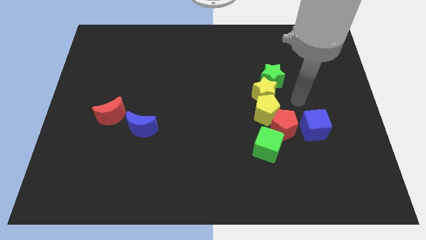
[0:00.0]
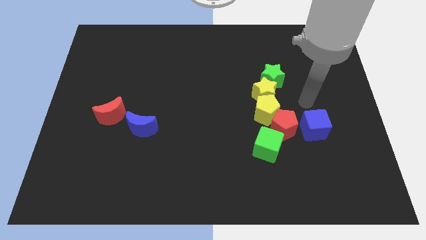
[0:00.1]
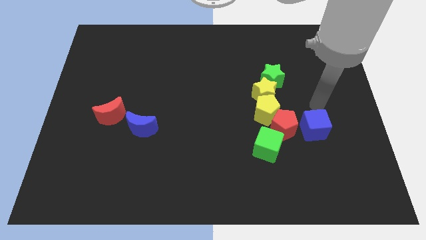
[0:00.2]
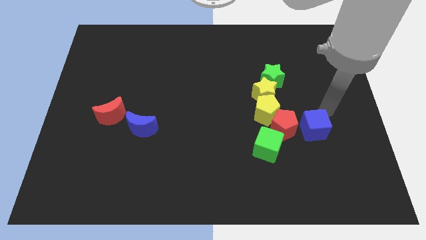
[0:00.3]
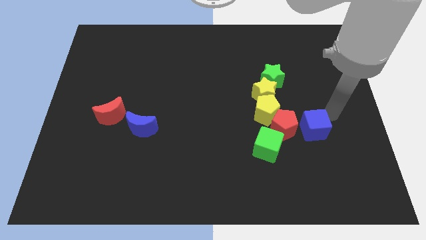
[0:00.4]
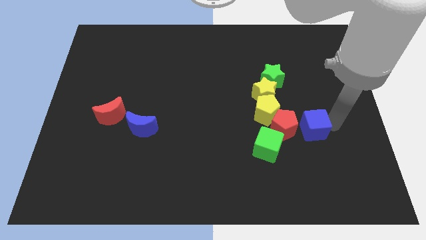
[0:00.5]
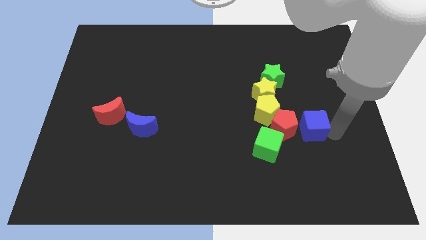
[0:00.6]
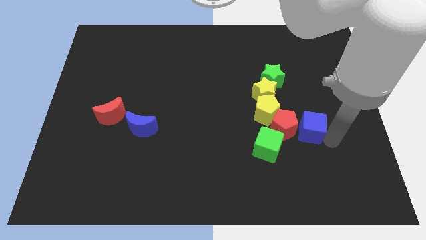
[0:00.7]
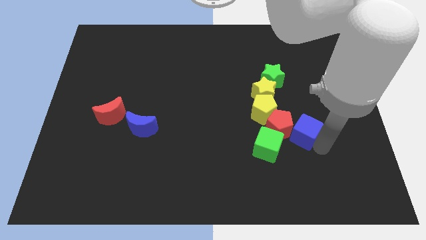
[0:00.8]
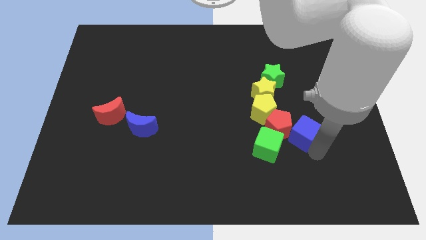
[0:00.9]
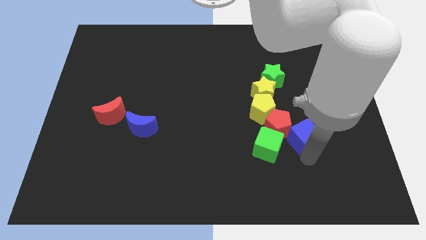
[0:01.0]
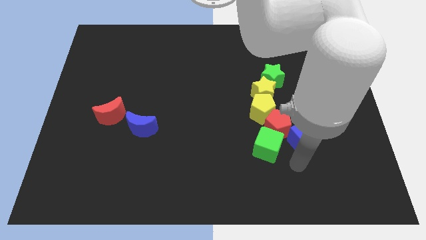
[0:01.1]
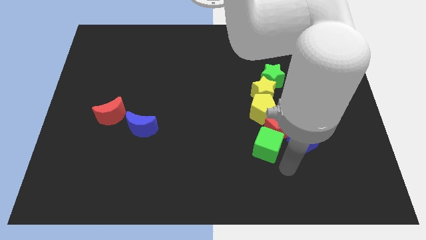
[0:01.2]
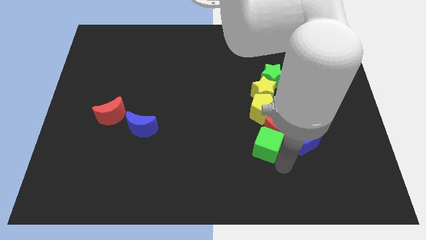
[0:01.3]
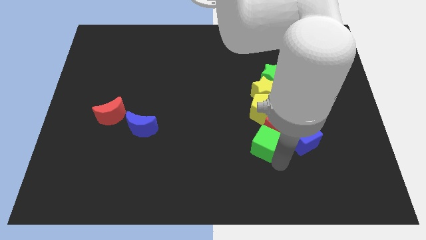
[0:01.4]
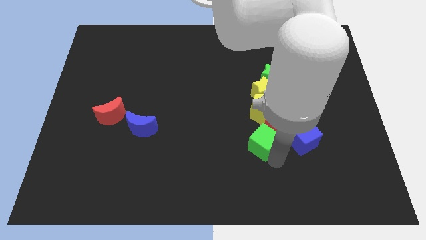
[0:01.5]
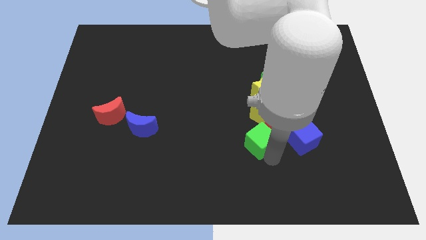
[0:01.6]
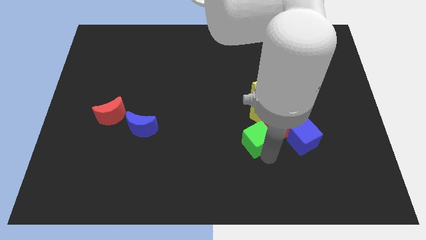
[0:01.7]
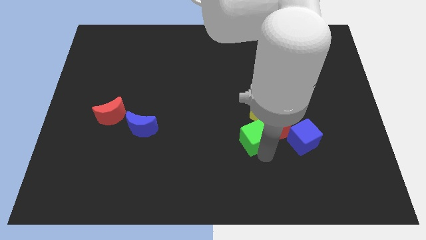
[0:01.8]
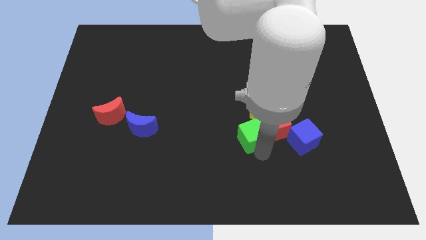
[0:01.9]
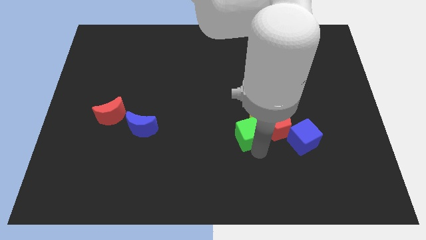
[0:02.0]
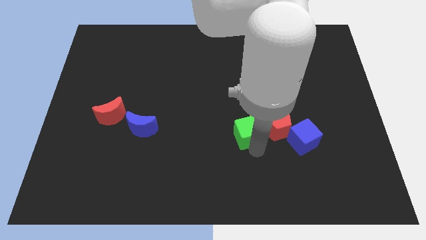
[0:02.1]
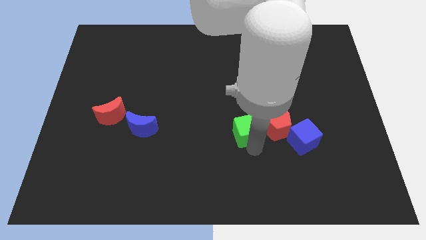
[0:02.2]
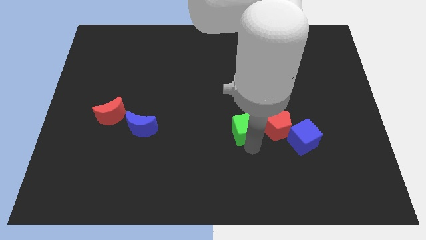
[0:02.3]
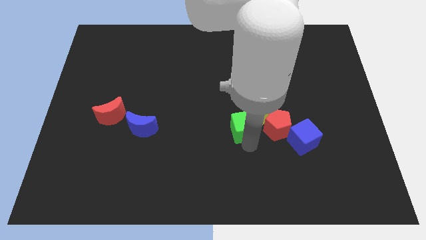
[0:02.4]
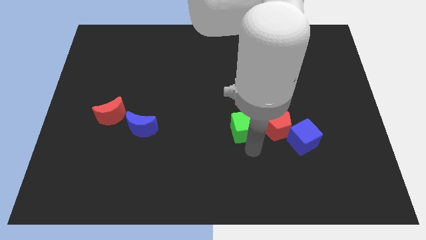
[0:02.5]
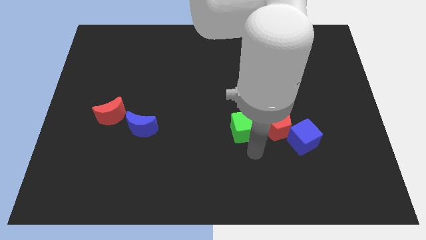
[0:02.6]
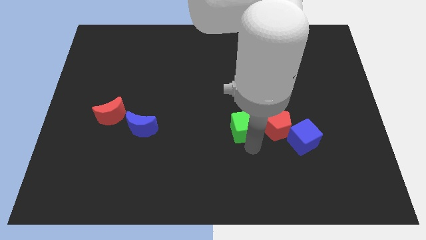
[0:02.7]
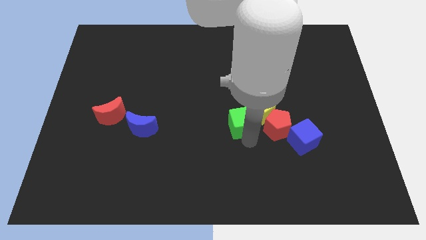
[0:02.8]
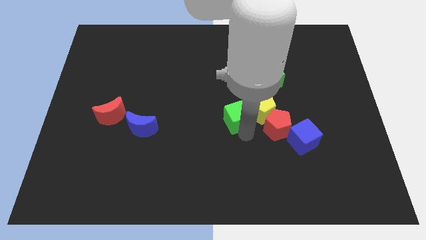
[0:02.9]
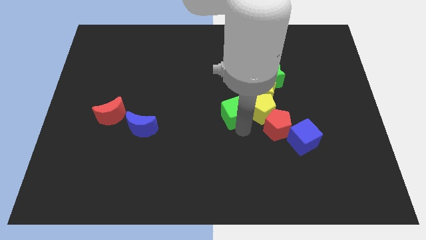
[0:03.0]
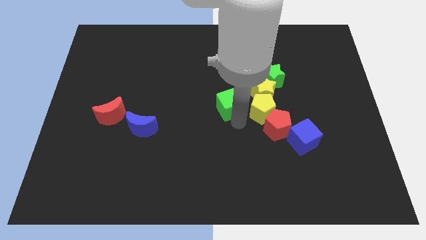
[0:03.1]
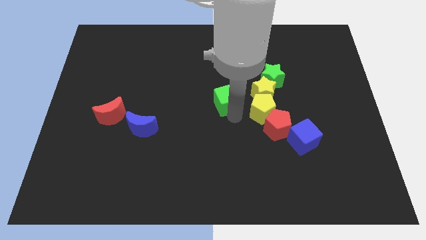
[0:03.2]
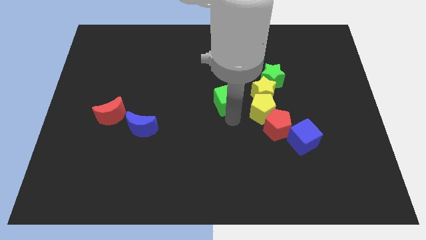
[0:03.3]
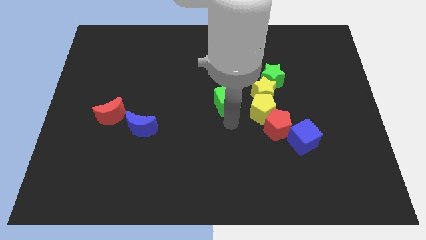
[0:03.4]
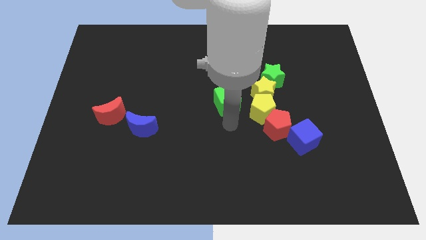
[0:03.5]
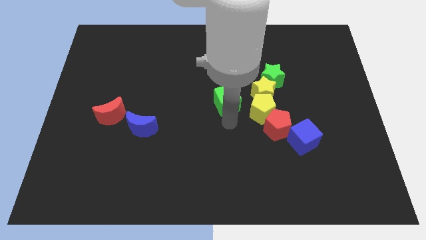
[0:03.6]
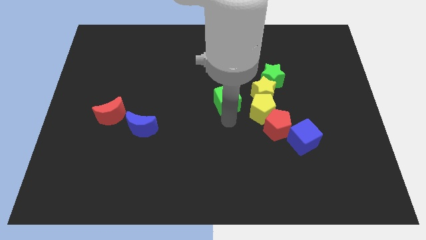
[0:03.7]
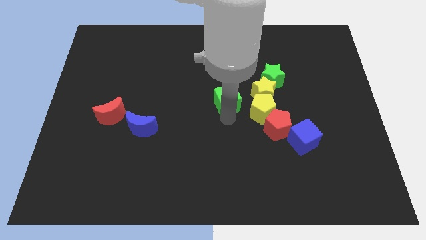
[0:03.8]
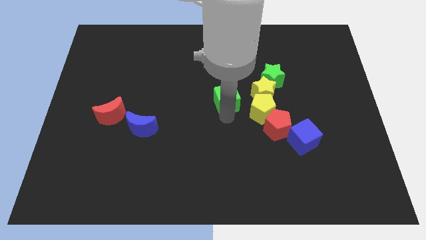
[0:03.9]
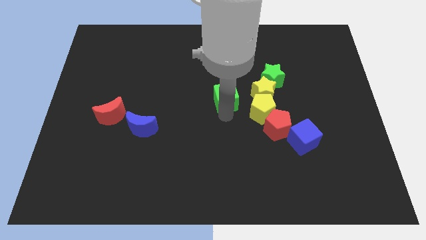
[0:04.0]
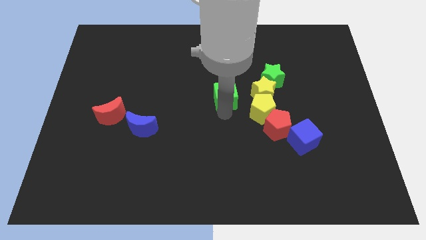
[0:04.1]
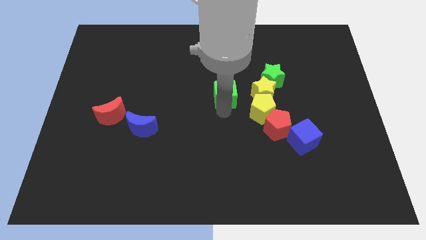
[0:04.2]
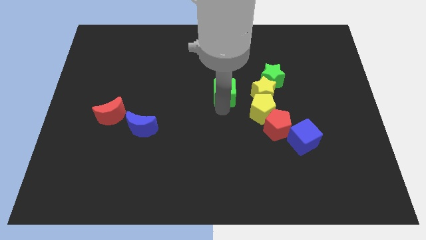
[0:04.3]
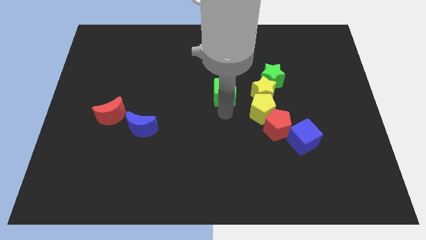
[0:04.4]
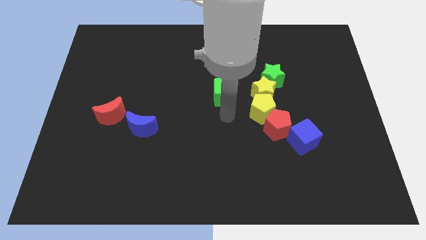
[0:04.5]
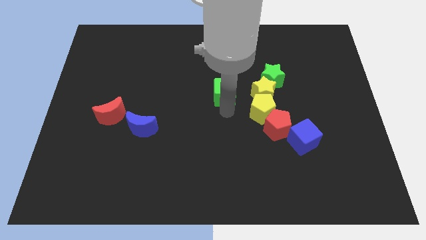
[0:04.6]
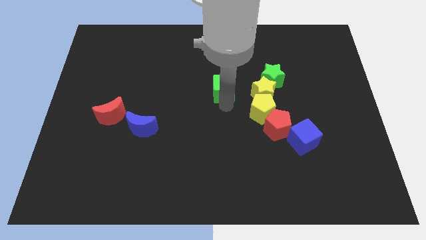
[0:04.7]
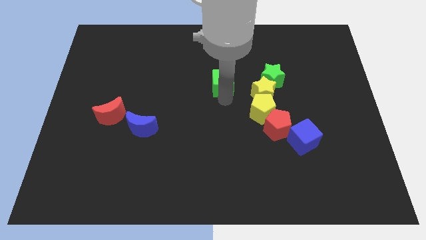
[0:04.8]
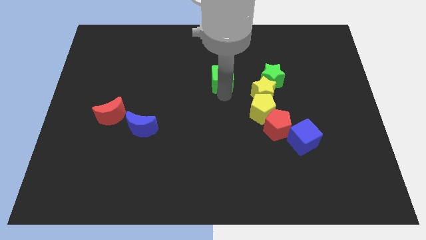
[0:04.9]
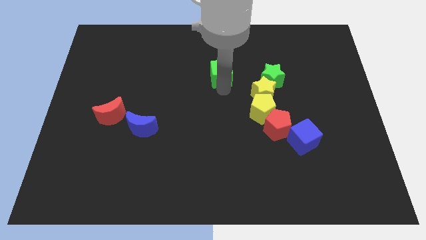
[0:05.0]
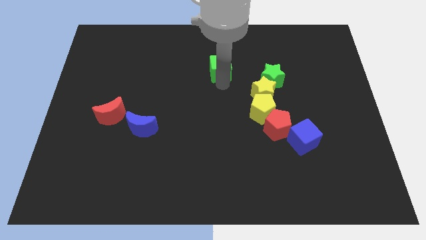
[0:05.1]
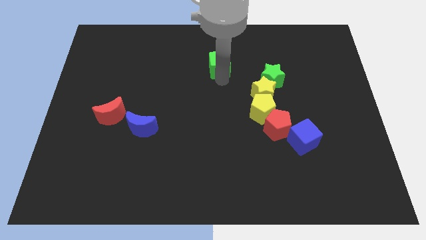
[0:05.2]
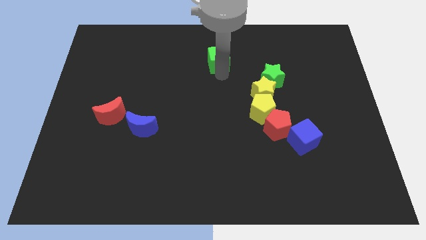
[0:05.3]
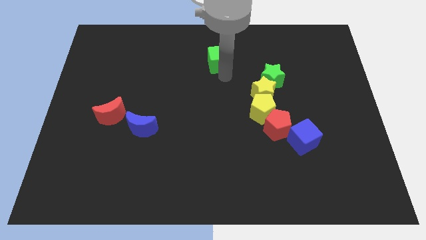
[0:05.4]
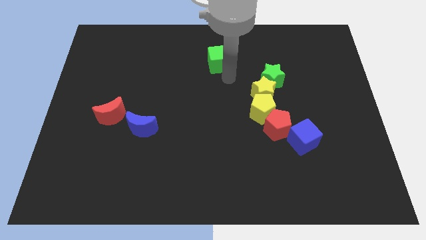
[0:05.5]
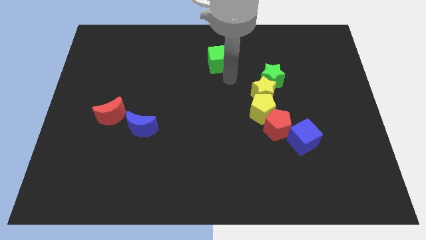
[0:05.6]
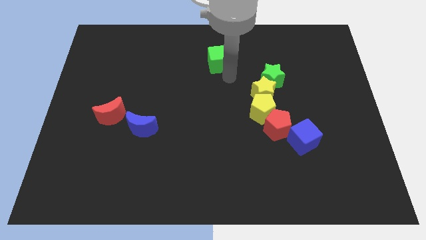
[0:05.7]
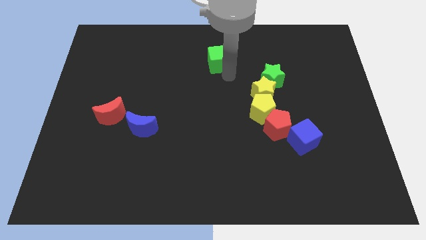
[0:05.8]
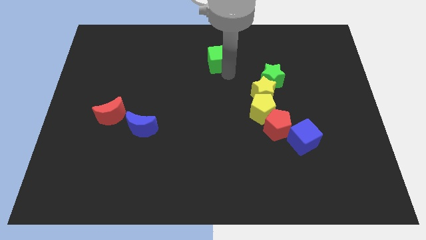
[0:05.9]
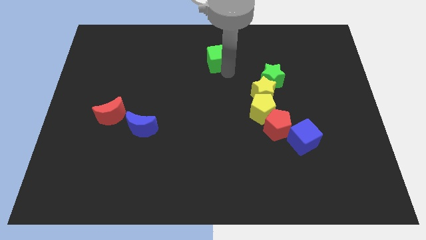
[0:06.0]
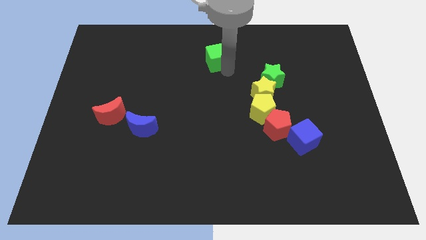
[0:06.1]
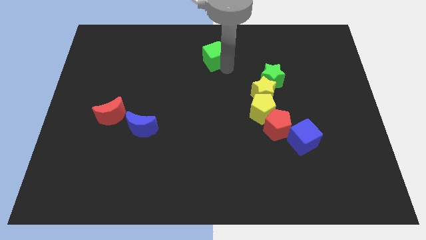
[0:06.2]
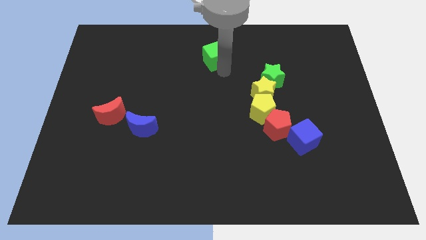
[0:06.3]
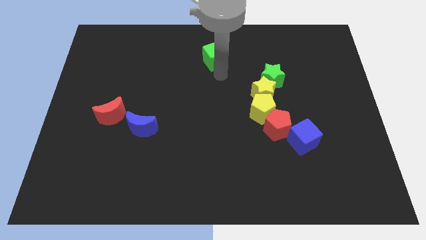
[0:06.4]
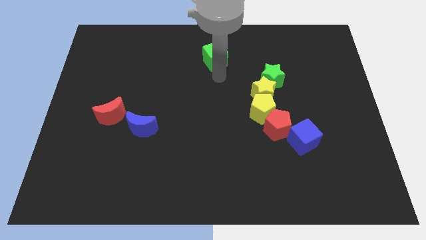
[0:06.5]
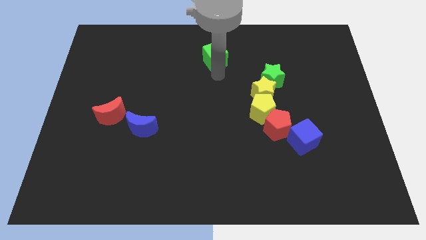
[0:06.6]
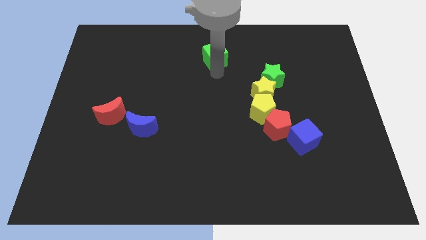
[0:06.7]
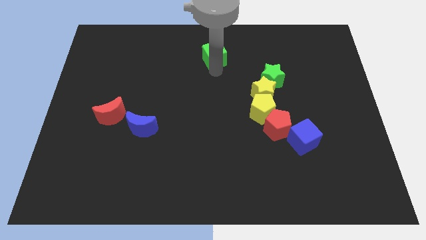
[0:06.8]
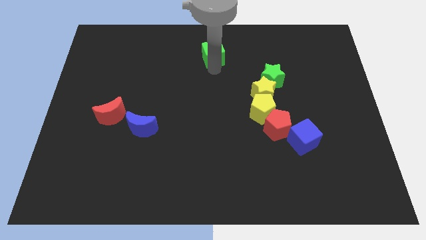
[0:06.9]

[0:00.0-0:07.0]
slide the green cube to the towards your base
